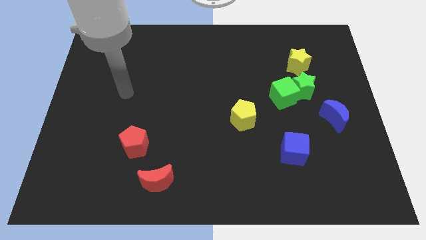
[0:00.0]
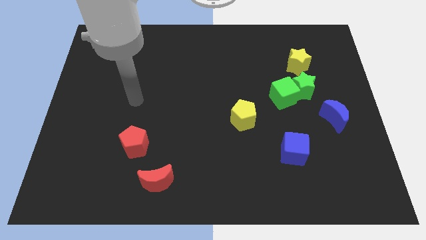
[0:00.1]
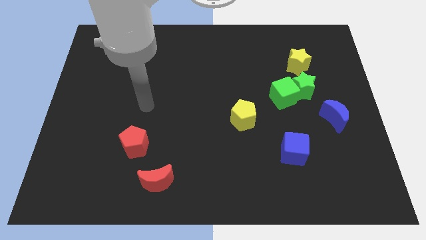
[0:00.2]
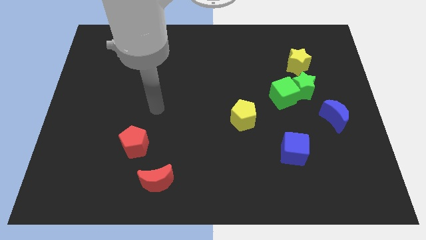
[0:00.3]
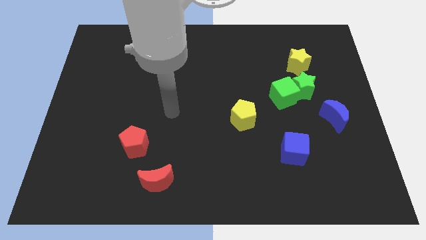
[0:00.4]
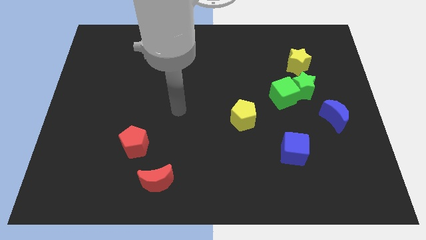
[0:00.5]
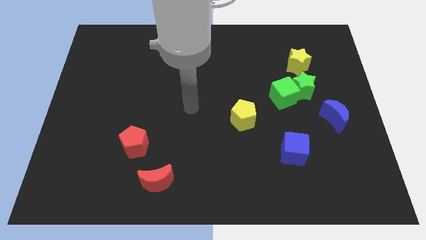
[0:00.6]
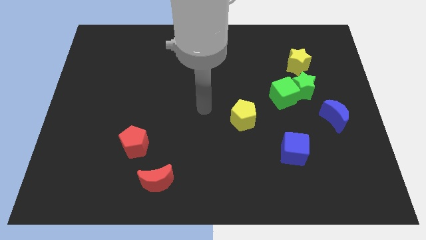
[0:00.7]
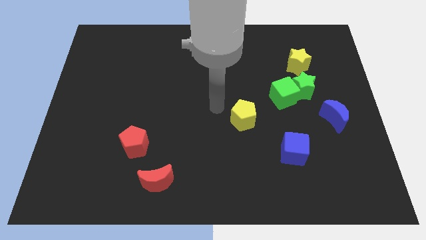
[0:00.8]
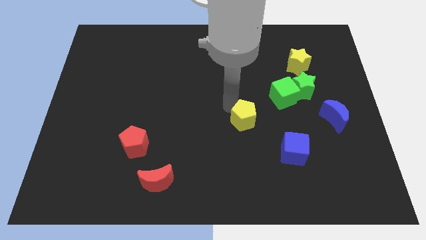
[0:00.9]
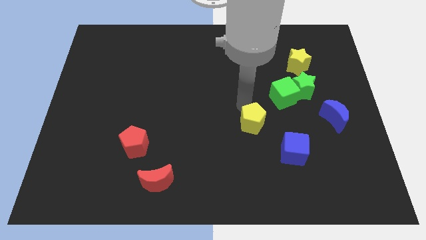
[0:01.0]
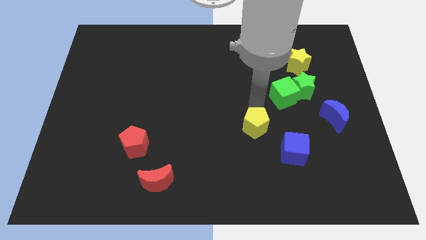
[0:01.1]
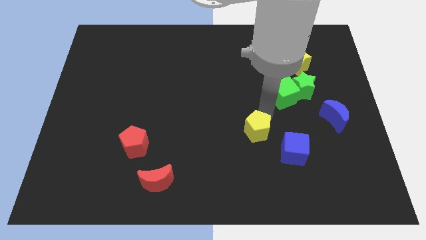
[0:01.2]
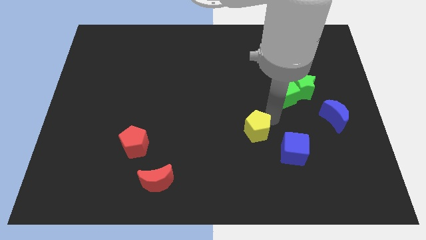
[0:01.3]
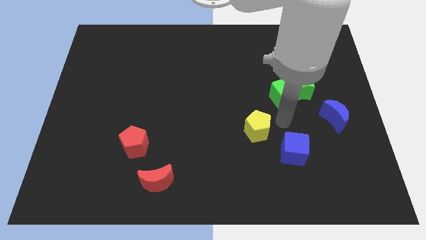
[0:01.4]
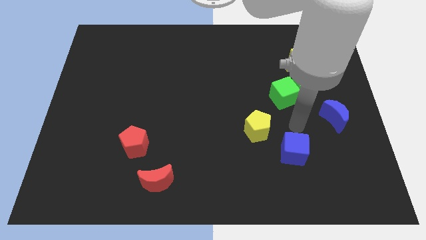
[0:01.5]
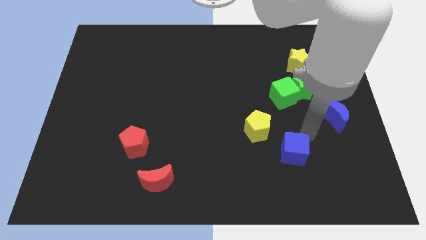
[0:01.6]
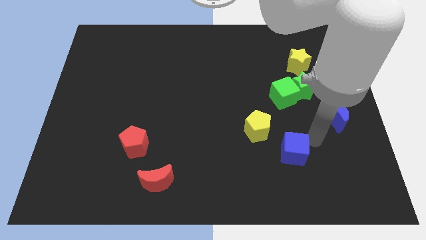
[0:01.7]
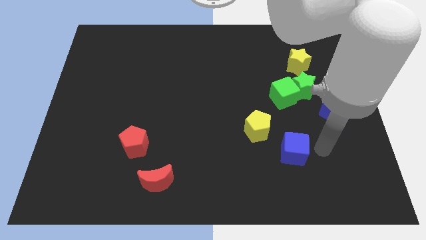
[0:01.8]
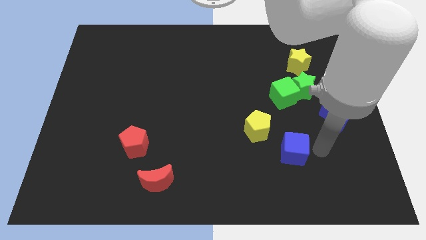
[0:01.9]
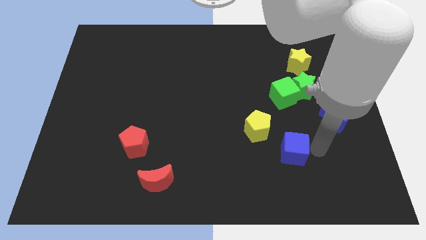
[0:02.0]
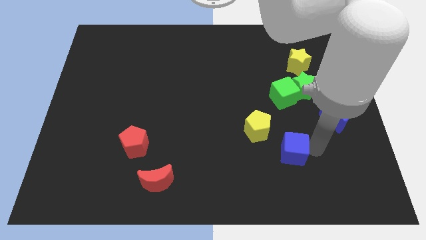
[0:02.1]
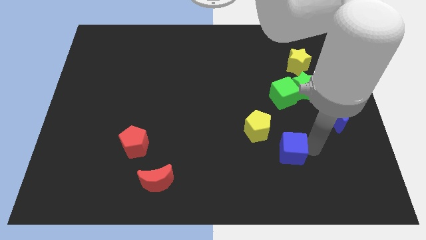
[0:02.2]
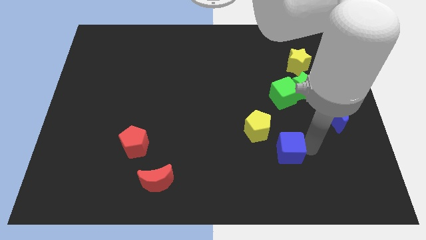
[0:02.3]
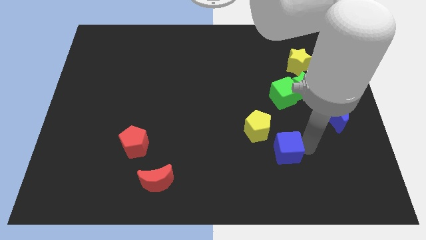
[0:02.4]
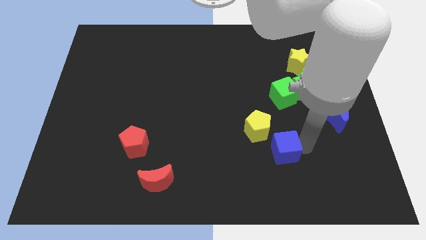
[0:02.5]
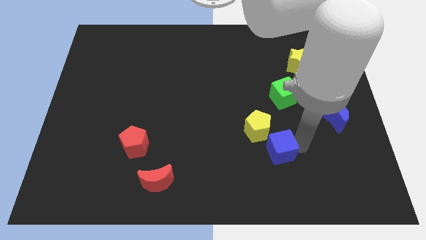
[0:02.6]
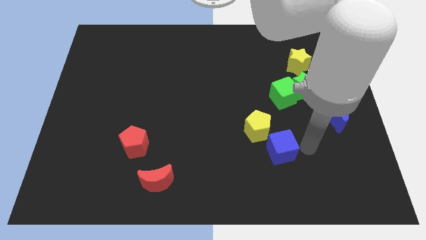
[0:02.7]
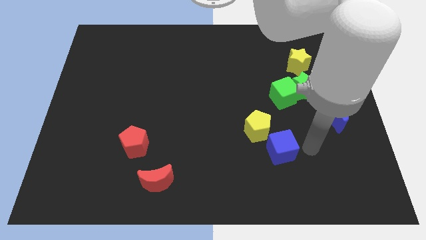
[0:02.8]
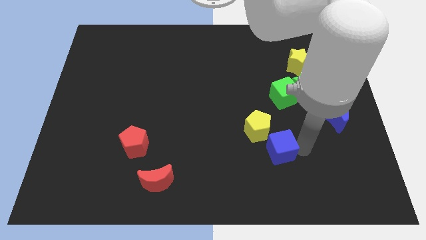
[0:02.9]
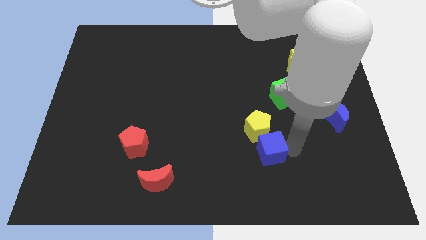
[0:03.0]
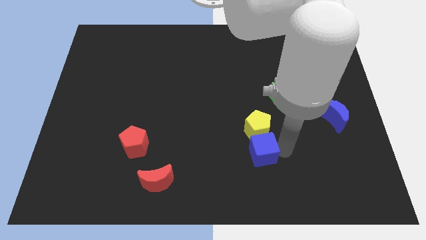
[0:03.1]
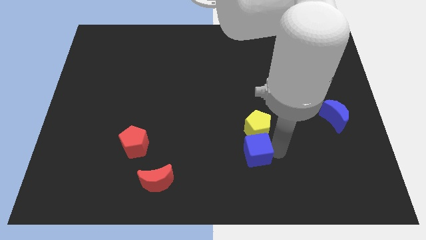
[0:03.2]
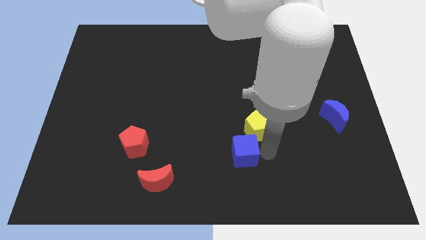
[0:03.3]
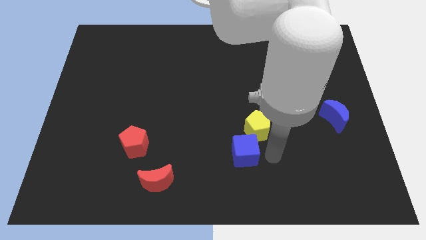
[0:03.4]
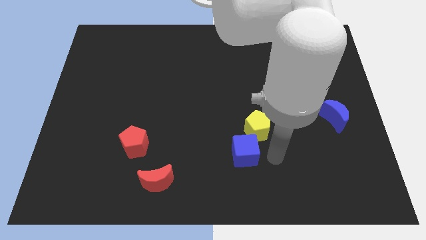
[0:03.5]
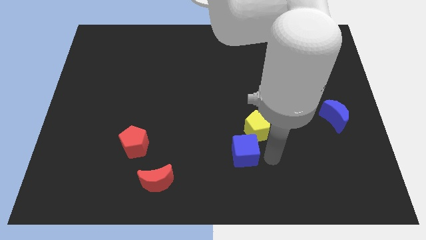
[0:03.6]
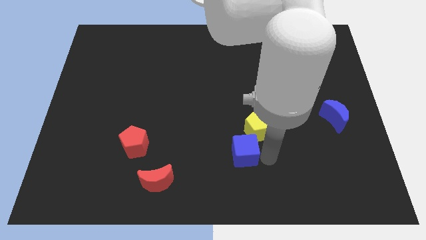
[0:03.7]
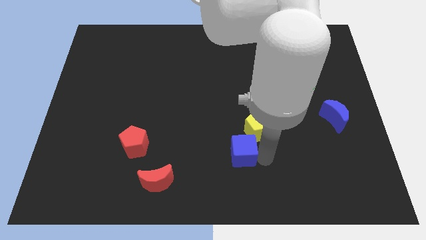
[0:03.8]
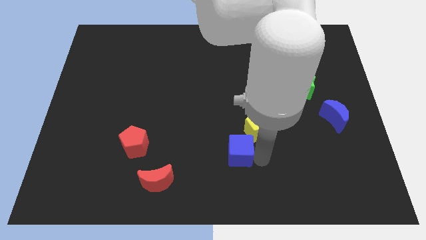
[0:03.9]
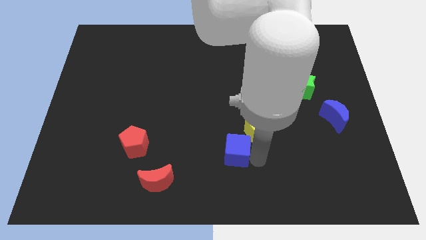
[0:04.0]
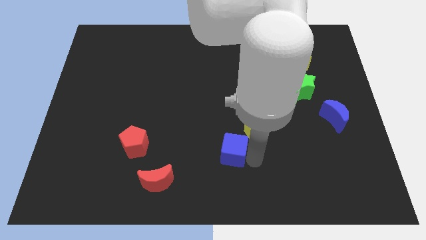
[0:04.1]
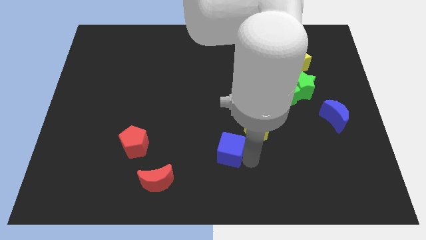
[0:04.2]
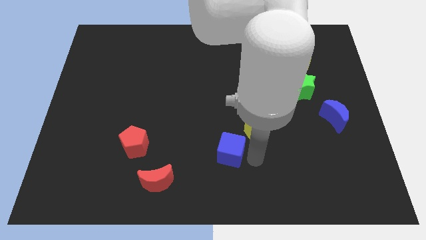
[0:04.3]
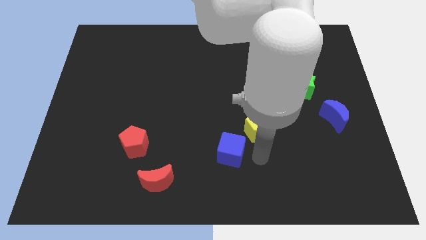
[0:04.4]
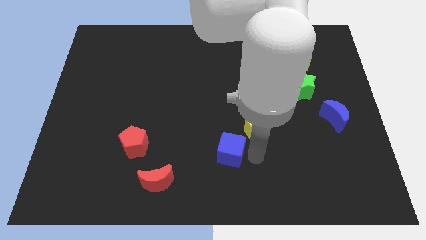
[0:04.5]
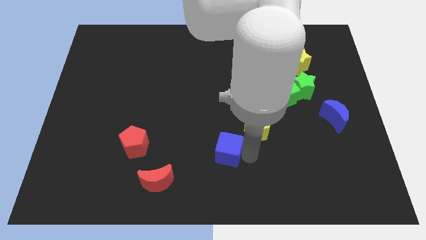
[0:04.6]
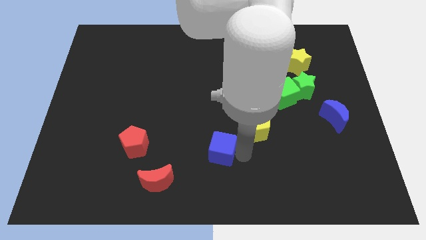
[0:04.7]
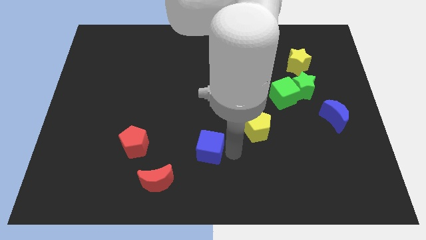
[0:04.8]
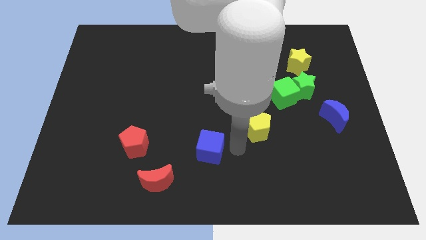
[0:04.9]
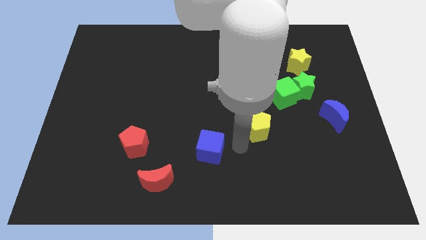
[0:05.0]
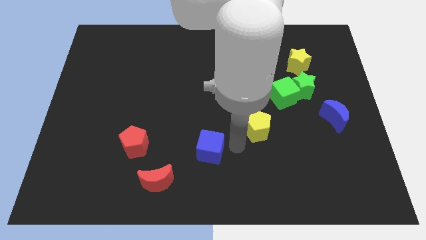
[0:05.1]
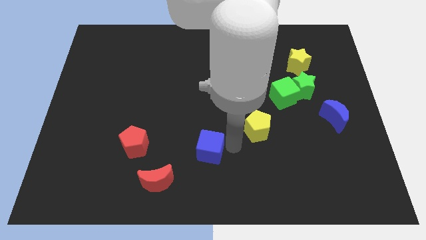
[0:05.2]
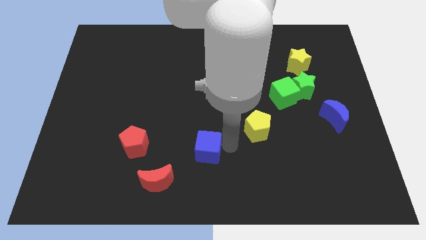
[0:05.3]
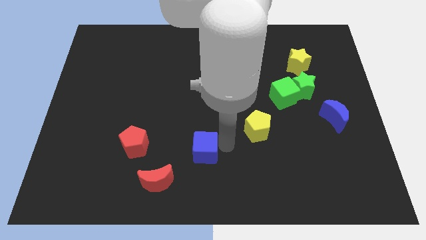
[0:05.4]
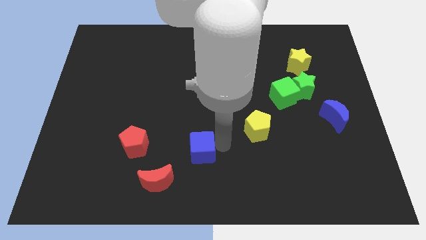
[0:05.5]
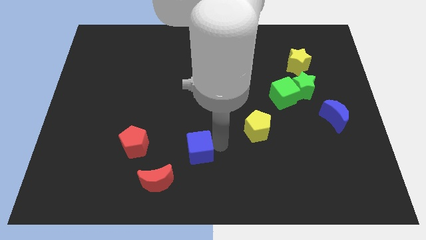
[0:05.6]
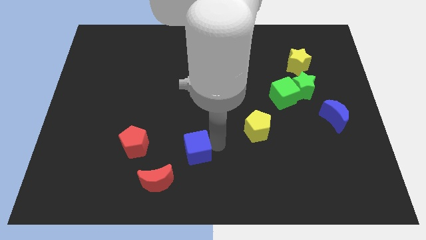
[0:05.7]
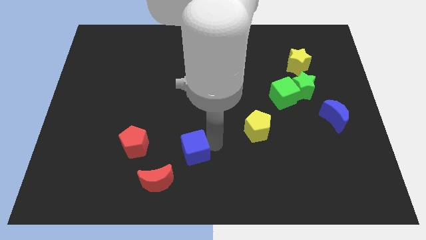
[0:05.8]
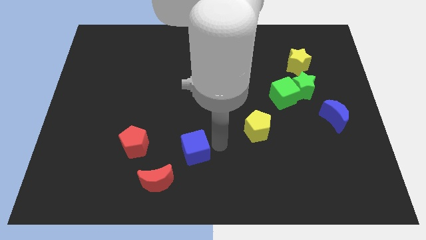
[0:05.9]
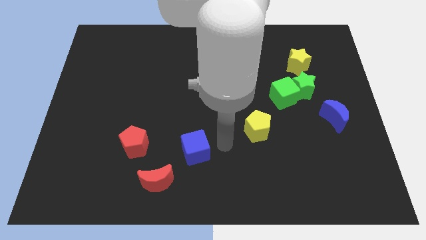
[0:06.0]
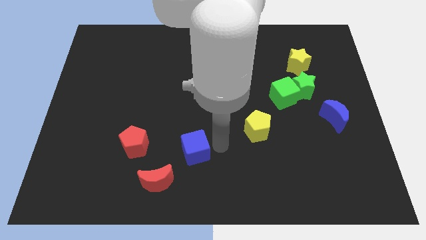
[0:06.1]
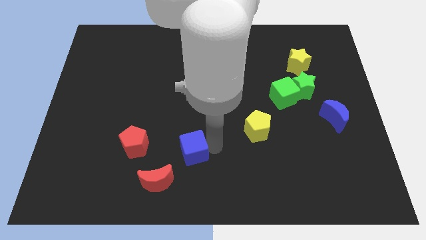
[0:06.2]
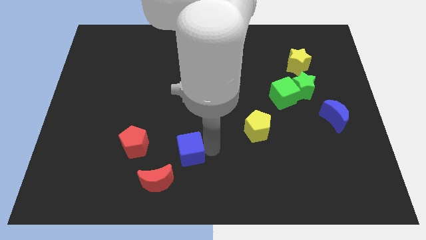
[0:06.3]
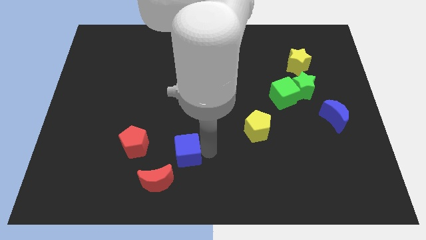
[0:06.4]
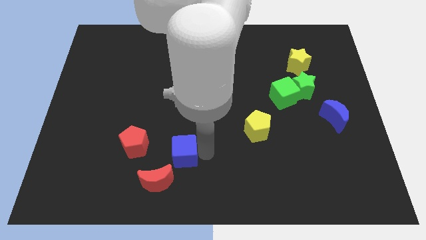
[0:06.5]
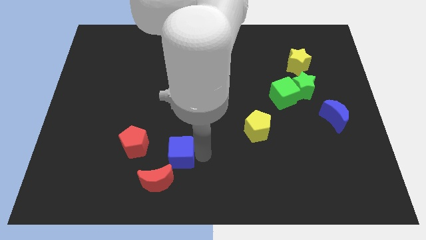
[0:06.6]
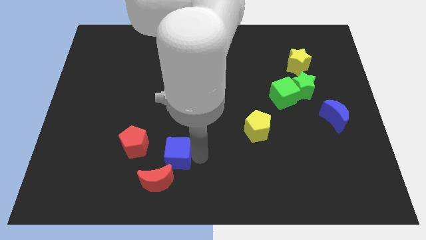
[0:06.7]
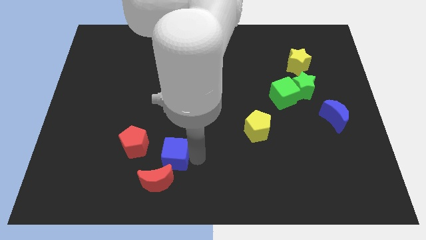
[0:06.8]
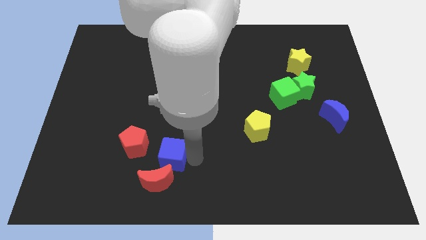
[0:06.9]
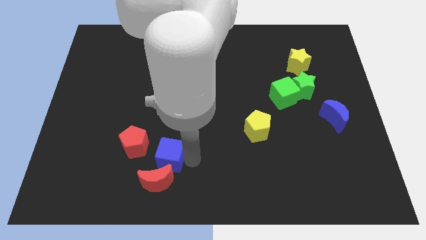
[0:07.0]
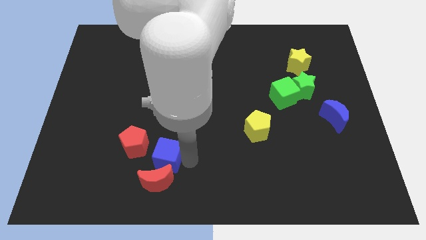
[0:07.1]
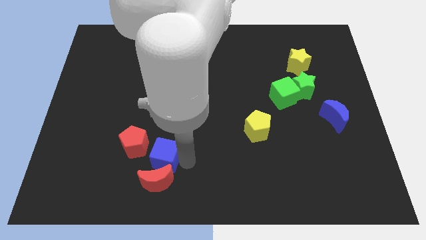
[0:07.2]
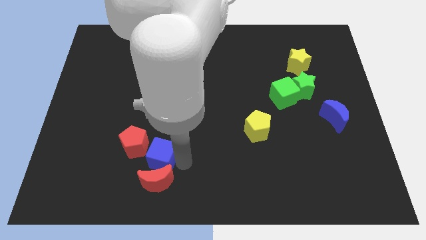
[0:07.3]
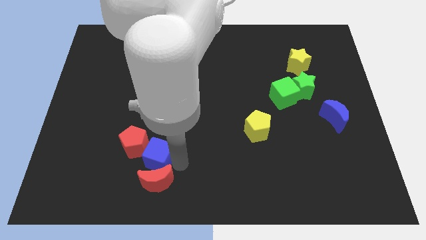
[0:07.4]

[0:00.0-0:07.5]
slide the blue cube close to the red pentagon
